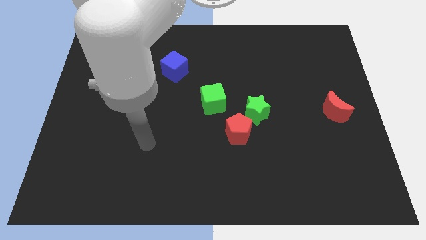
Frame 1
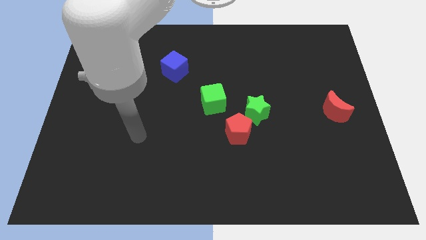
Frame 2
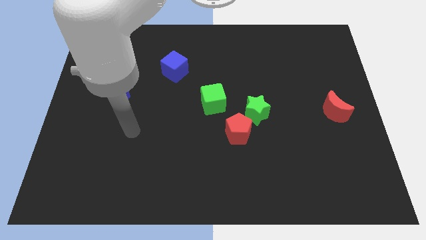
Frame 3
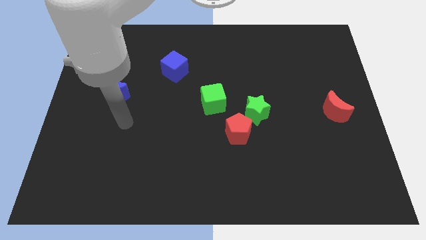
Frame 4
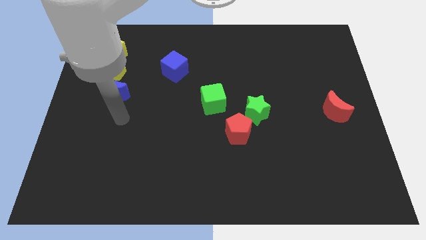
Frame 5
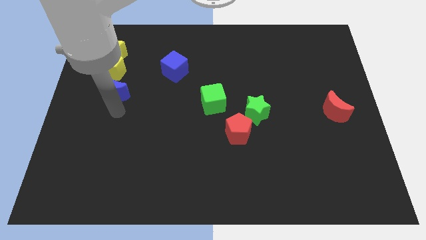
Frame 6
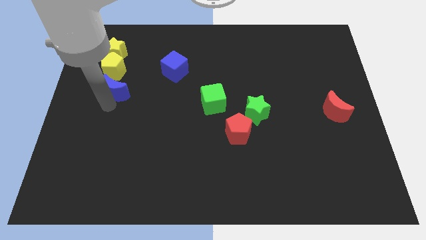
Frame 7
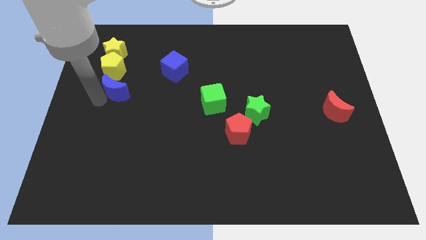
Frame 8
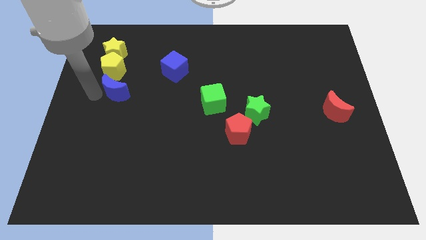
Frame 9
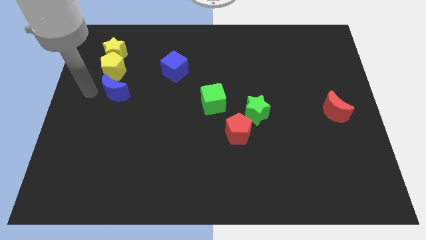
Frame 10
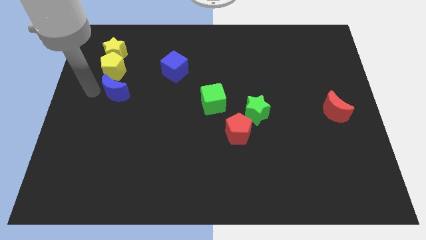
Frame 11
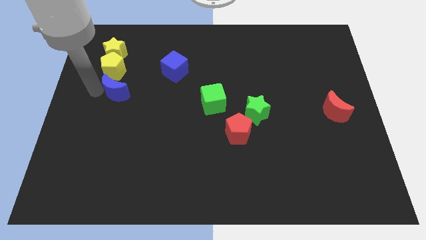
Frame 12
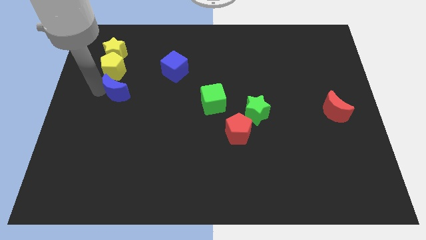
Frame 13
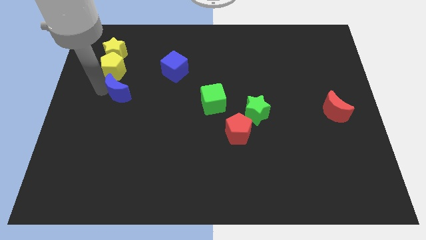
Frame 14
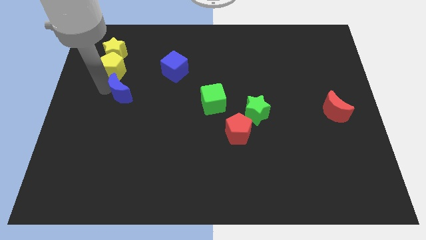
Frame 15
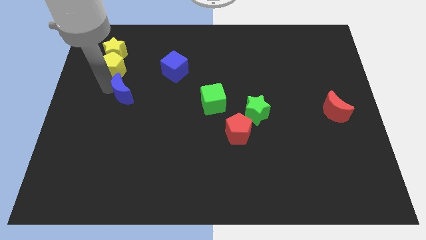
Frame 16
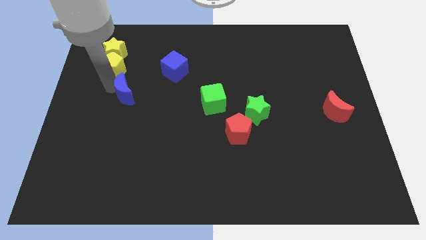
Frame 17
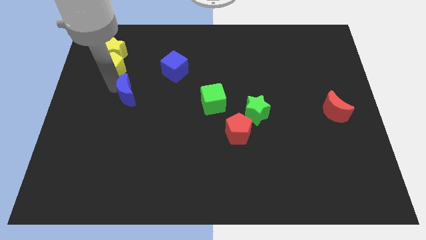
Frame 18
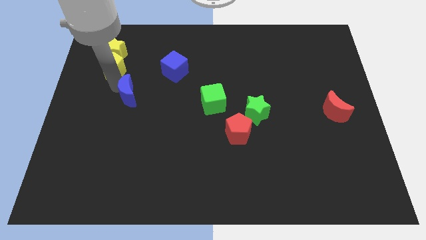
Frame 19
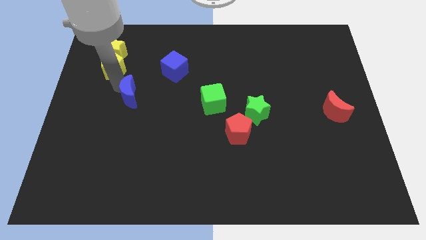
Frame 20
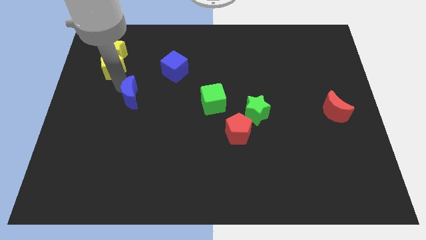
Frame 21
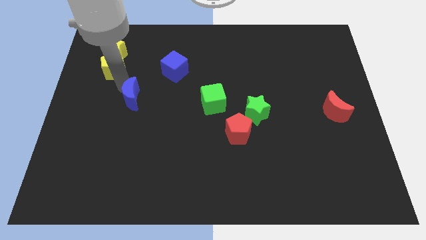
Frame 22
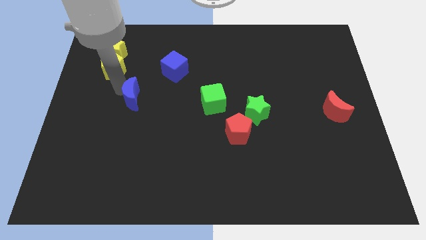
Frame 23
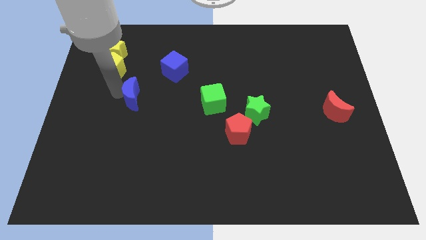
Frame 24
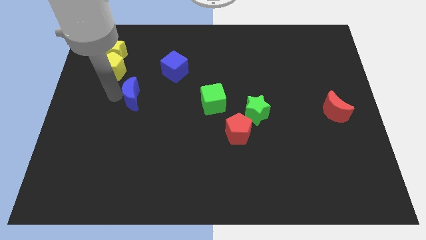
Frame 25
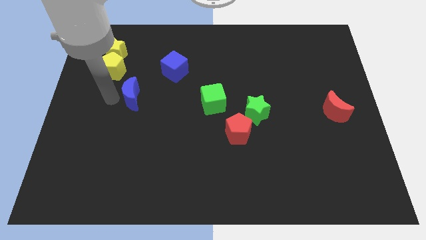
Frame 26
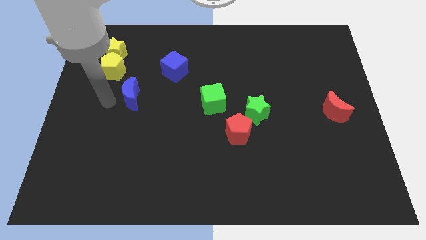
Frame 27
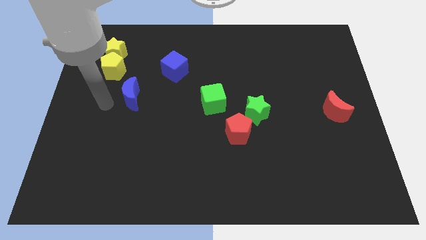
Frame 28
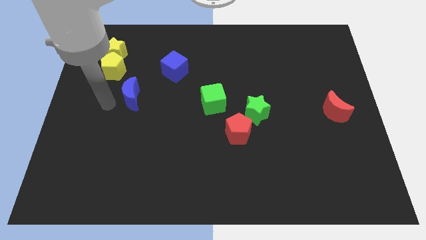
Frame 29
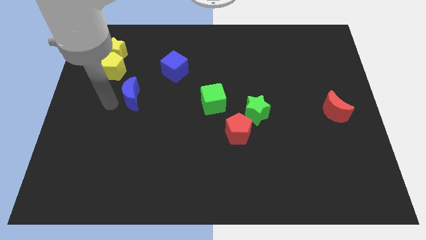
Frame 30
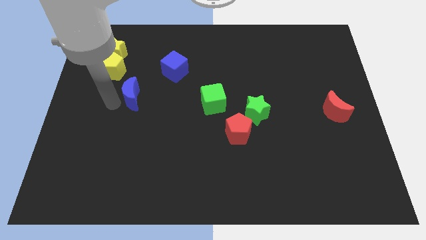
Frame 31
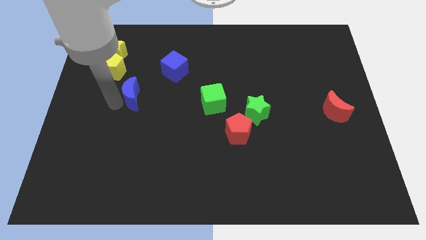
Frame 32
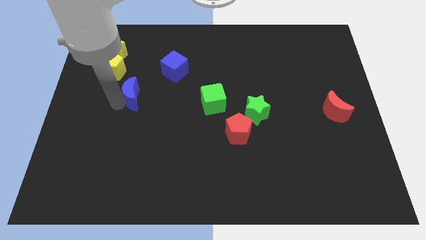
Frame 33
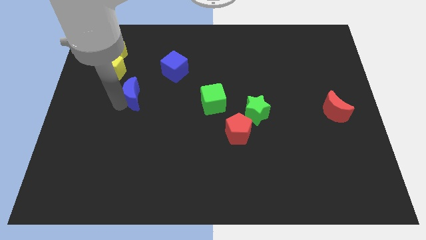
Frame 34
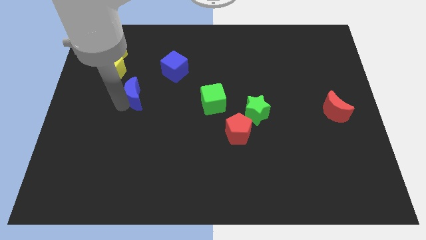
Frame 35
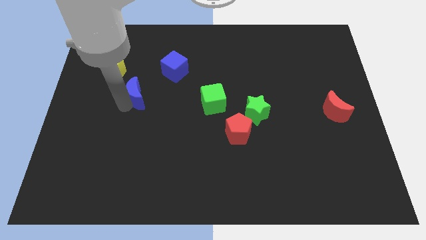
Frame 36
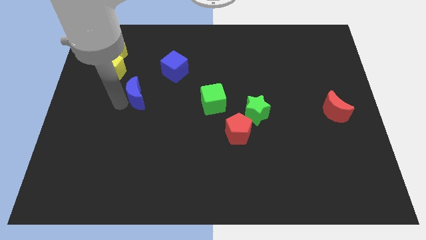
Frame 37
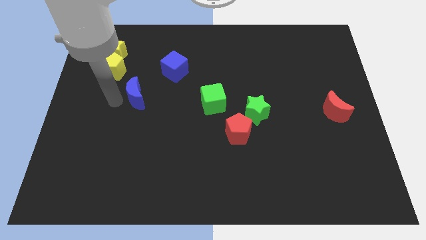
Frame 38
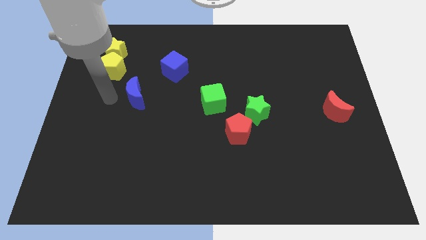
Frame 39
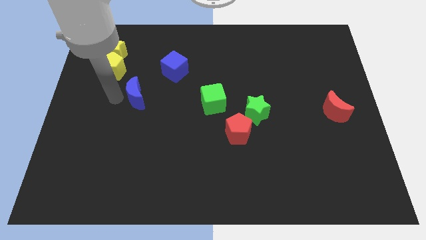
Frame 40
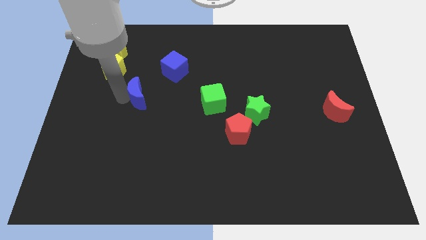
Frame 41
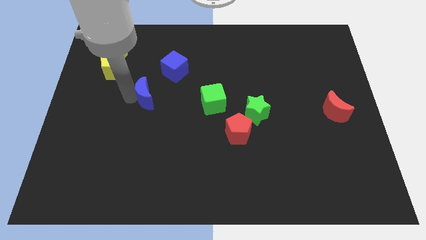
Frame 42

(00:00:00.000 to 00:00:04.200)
push the blue moon a little right

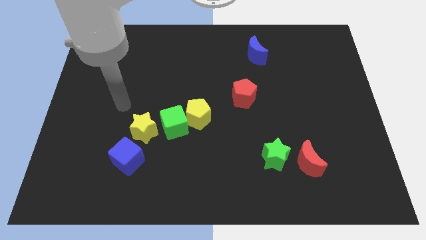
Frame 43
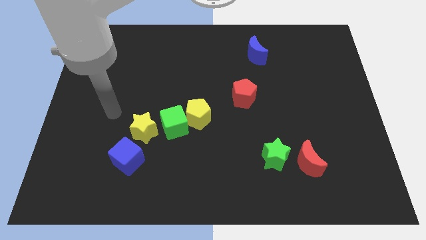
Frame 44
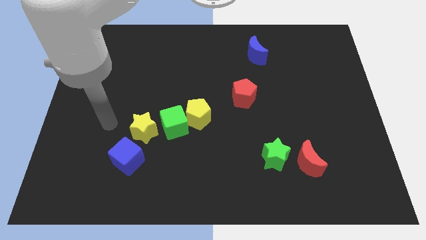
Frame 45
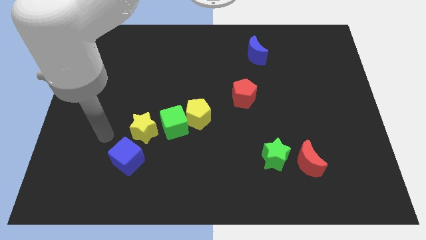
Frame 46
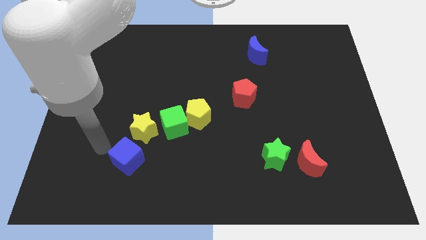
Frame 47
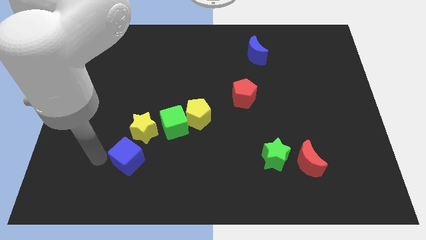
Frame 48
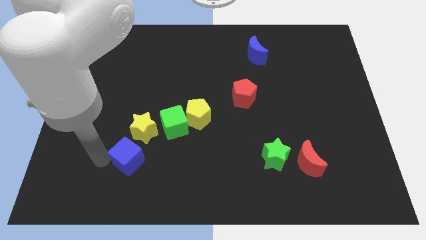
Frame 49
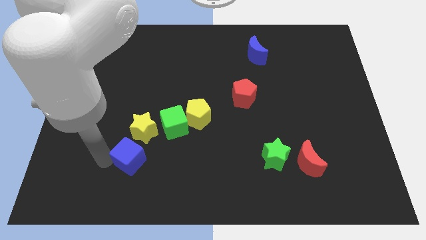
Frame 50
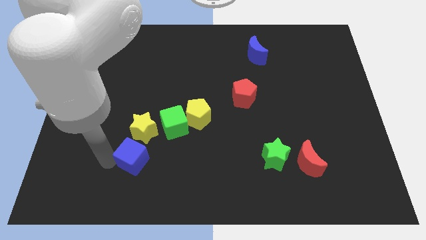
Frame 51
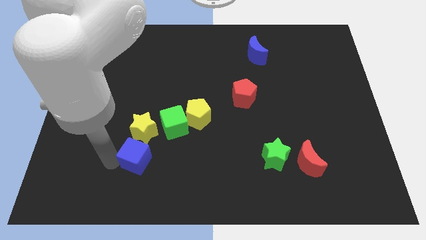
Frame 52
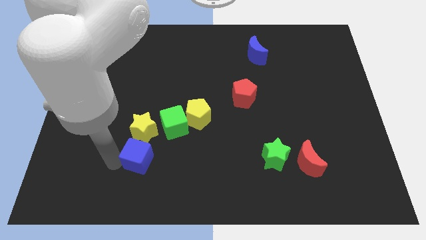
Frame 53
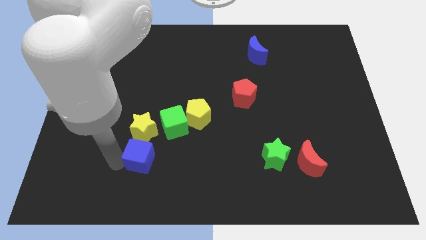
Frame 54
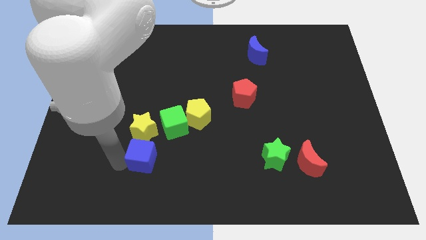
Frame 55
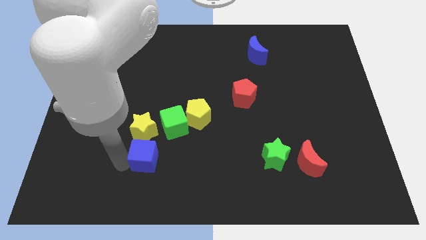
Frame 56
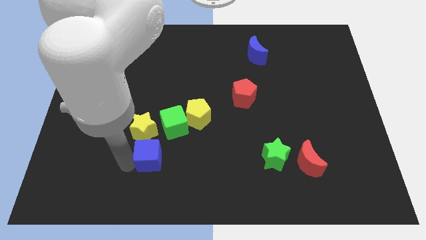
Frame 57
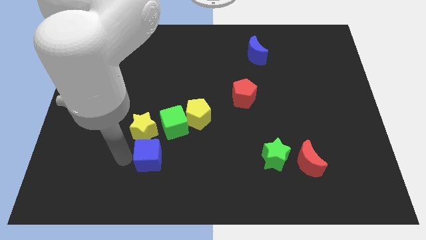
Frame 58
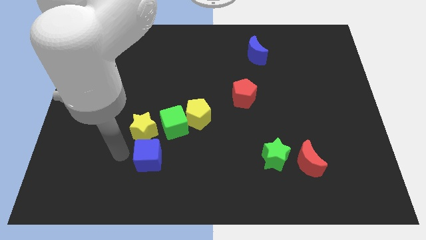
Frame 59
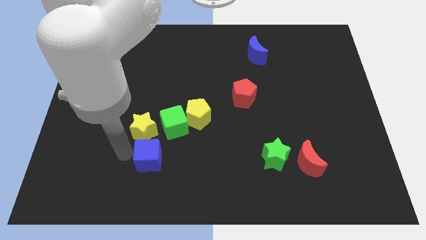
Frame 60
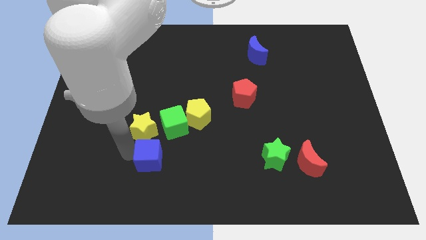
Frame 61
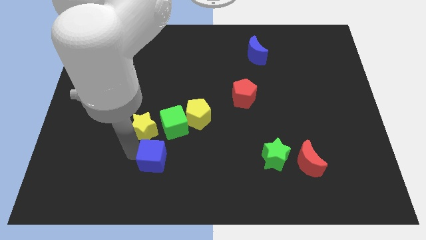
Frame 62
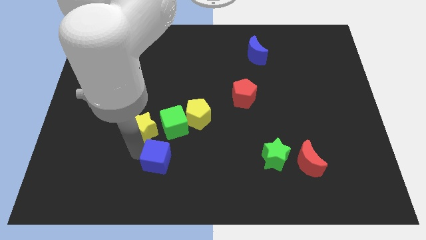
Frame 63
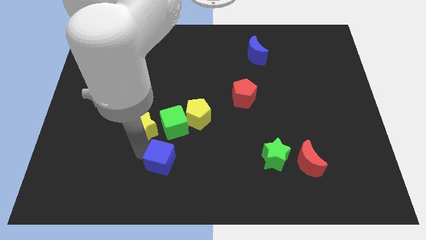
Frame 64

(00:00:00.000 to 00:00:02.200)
slightly slide the blue cube right

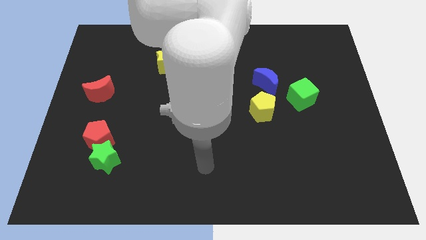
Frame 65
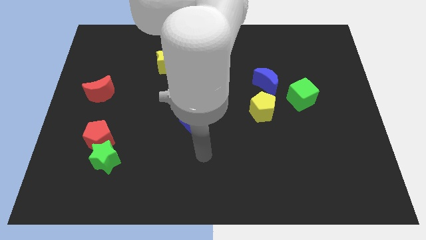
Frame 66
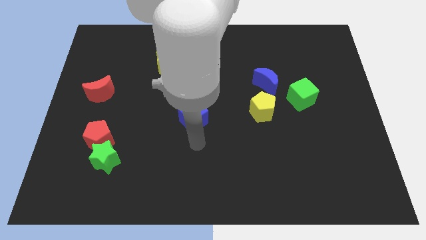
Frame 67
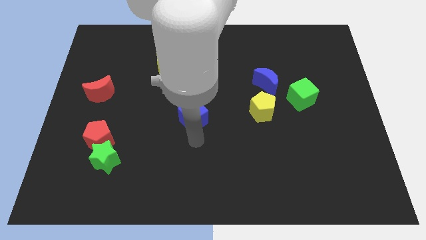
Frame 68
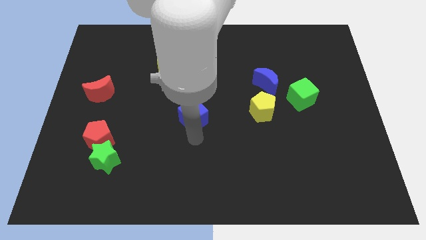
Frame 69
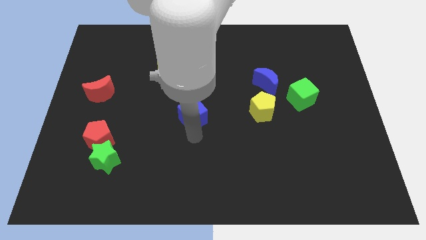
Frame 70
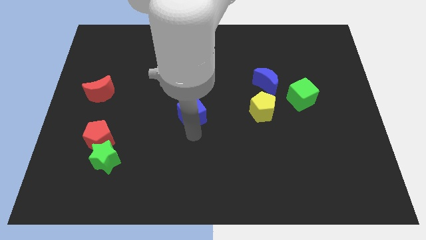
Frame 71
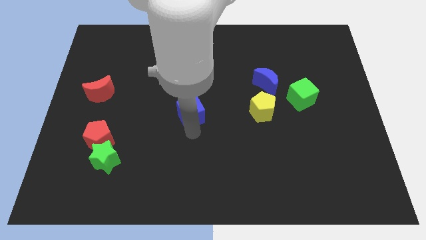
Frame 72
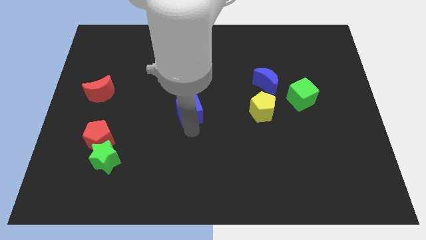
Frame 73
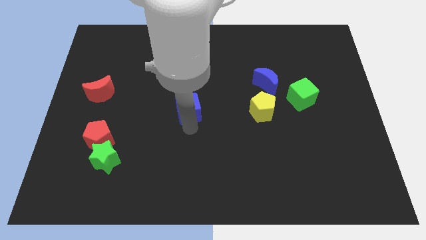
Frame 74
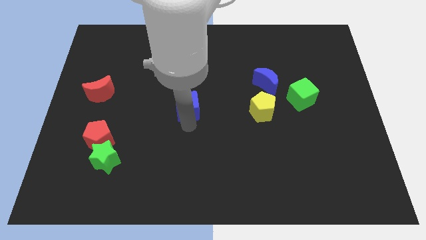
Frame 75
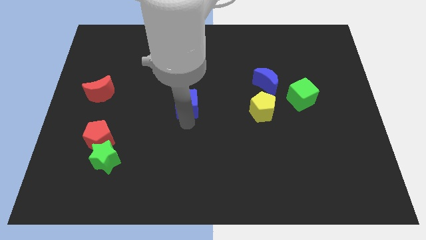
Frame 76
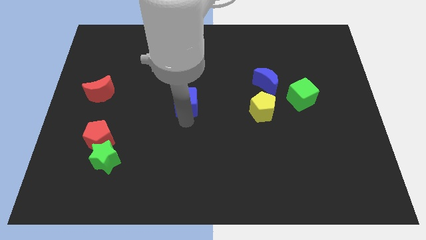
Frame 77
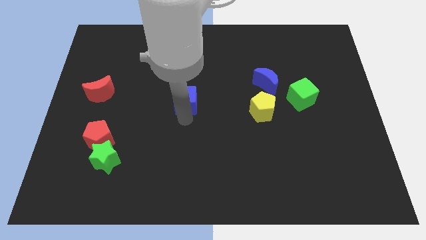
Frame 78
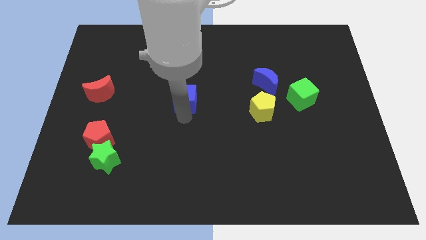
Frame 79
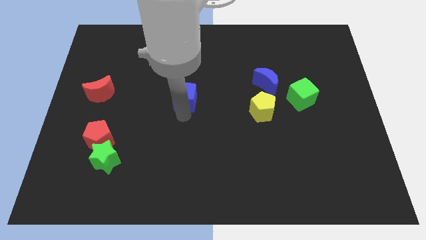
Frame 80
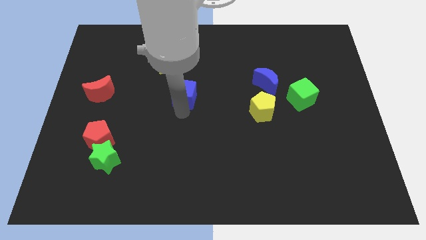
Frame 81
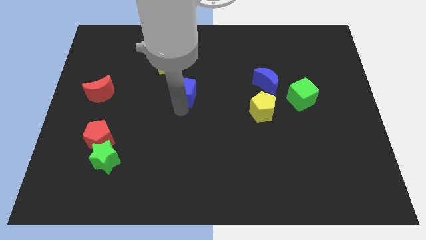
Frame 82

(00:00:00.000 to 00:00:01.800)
slide the blue cube a bit upwards
